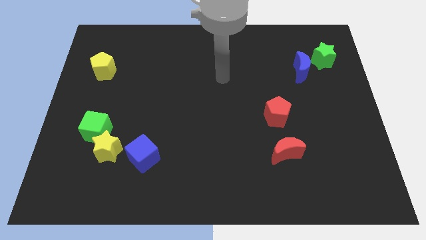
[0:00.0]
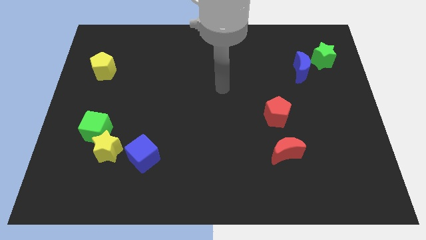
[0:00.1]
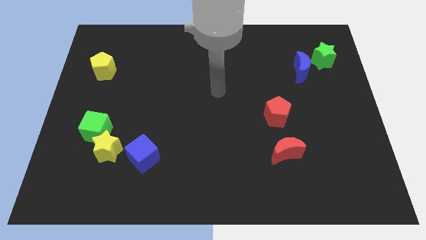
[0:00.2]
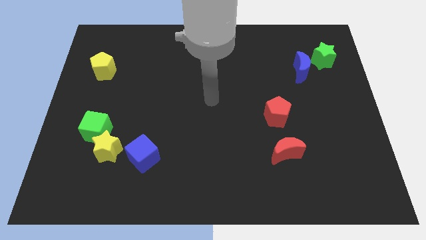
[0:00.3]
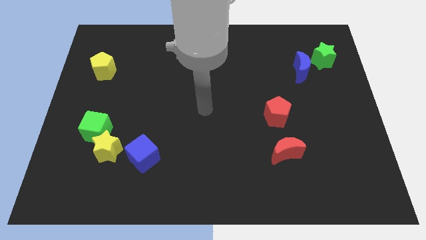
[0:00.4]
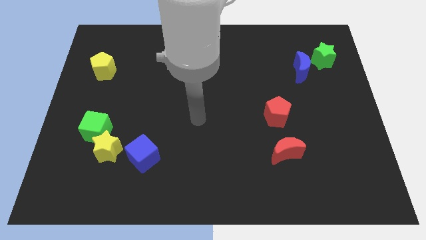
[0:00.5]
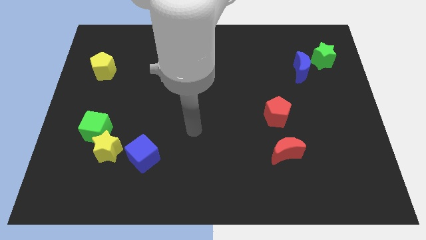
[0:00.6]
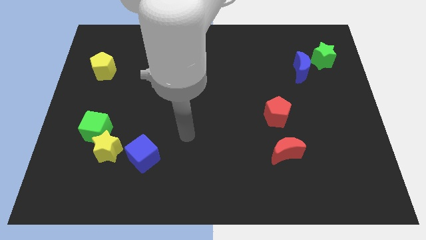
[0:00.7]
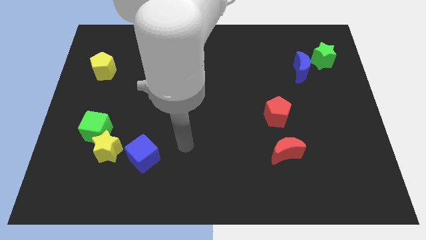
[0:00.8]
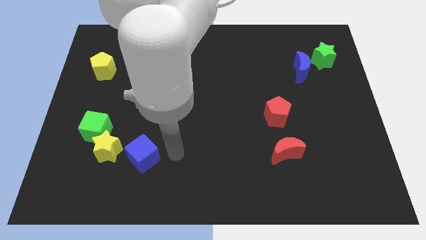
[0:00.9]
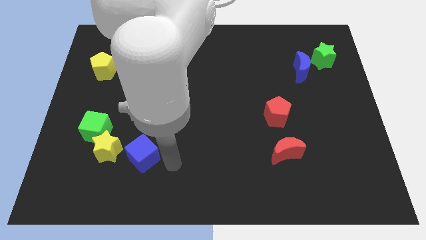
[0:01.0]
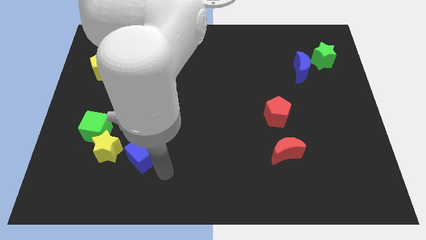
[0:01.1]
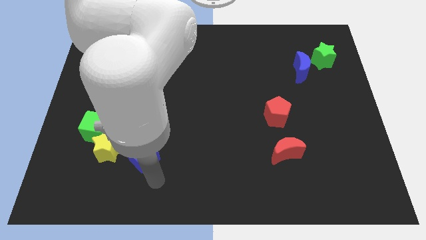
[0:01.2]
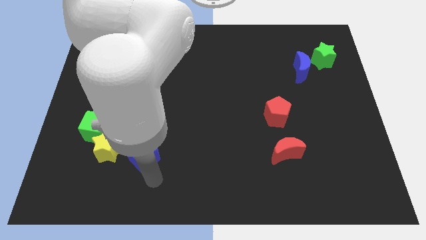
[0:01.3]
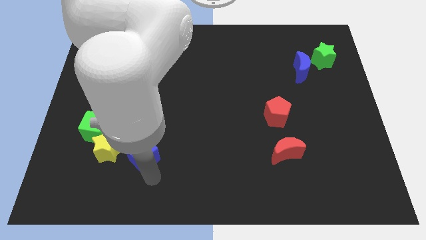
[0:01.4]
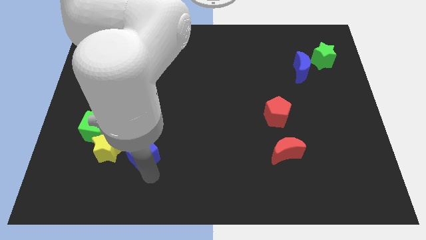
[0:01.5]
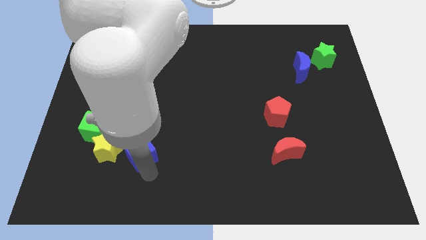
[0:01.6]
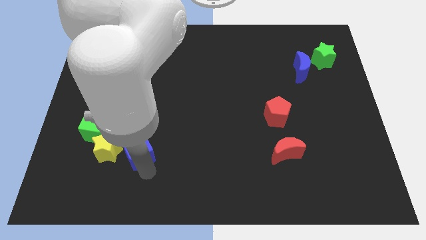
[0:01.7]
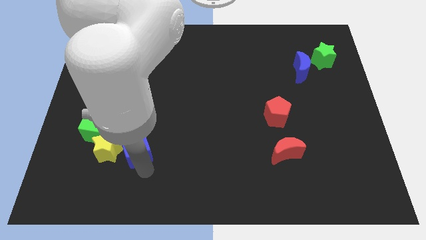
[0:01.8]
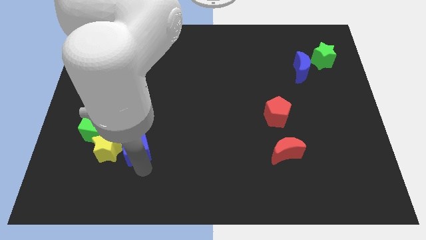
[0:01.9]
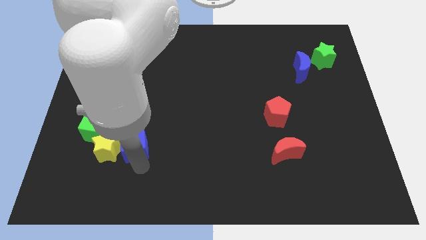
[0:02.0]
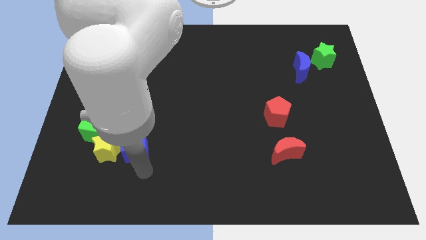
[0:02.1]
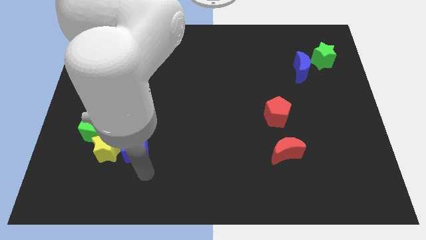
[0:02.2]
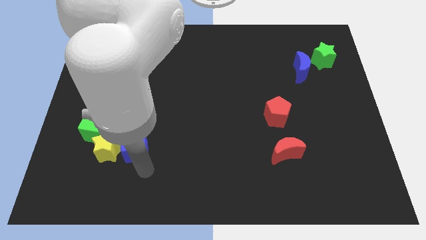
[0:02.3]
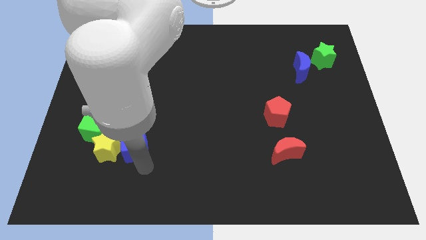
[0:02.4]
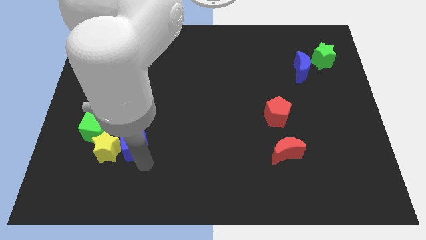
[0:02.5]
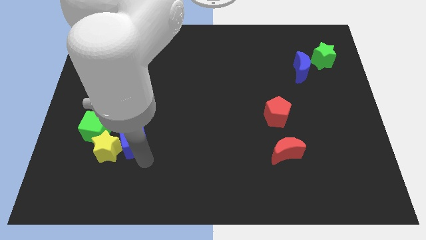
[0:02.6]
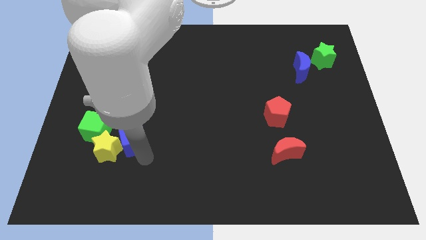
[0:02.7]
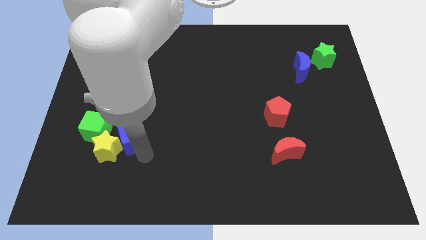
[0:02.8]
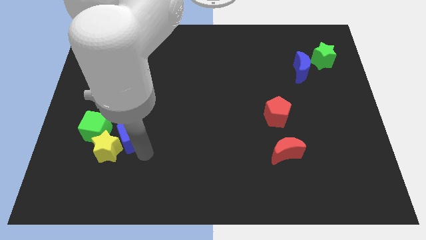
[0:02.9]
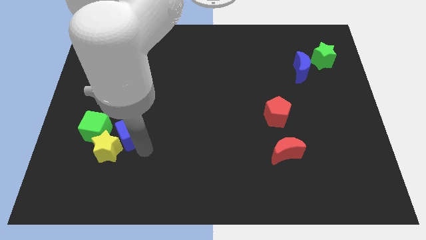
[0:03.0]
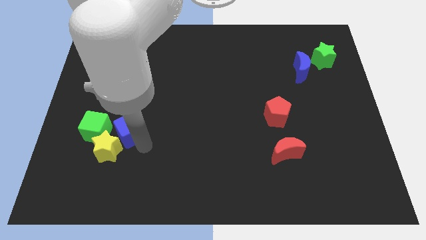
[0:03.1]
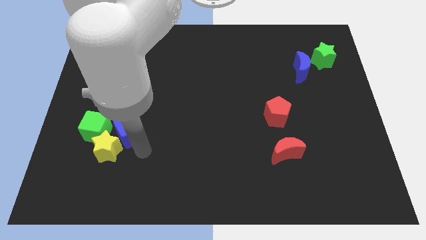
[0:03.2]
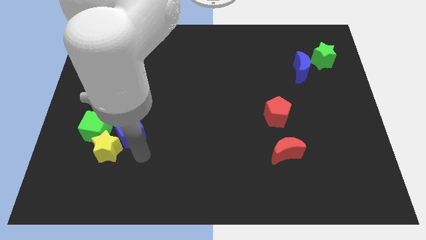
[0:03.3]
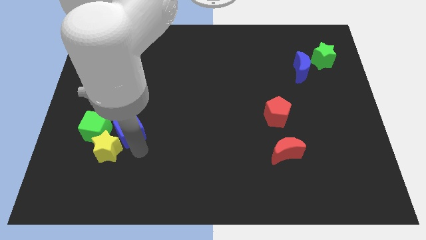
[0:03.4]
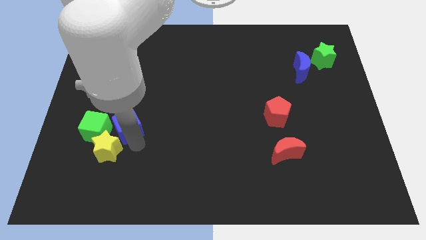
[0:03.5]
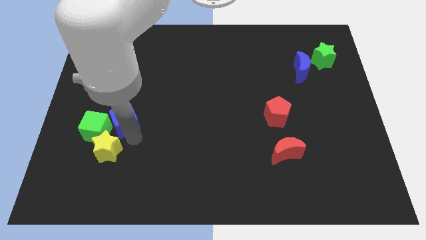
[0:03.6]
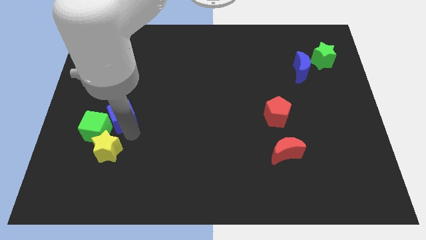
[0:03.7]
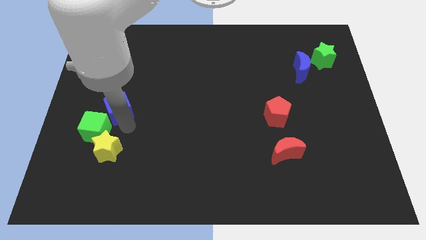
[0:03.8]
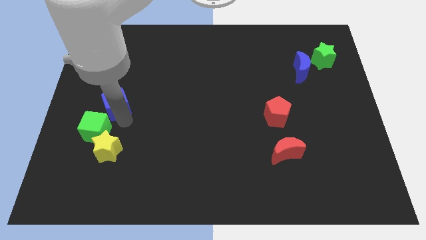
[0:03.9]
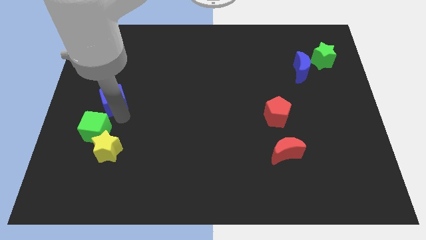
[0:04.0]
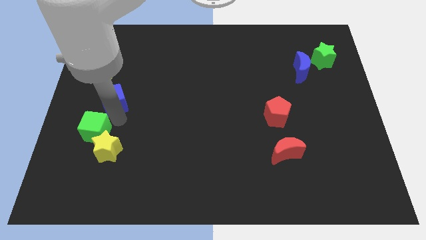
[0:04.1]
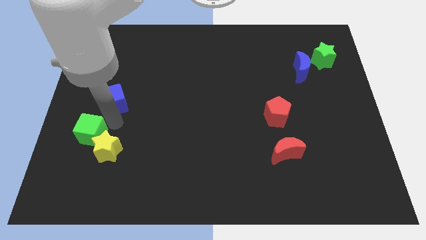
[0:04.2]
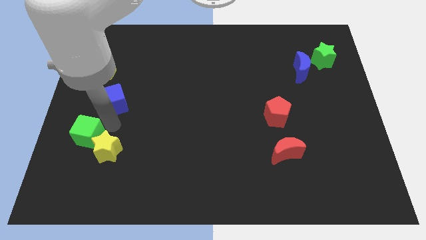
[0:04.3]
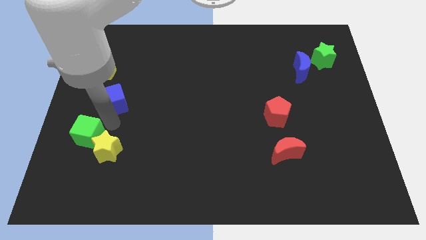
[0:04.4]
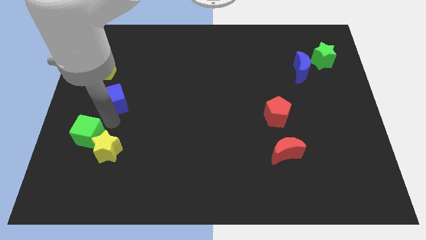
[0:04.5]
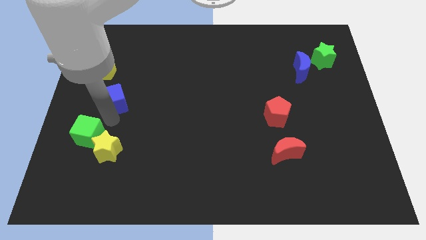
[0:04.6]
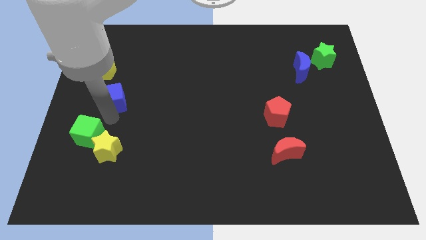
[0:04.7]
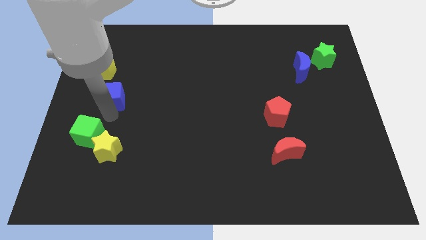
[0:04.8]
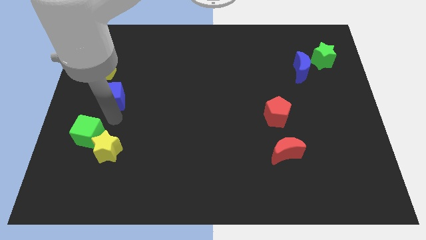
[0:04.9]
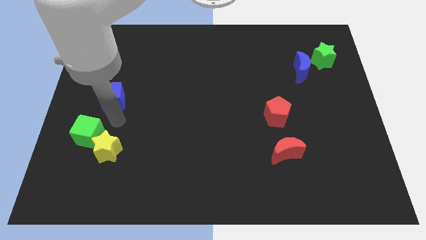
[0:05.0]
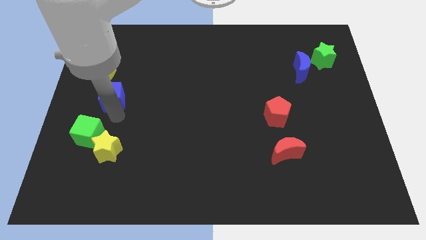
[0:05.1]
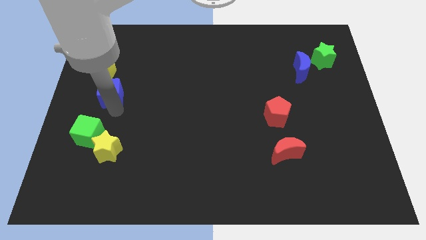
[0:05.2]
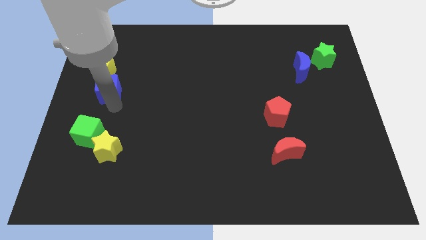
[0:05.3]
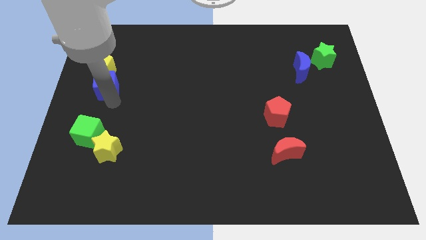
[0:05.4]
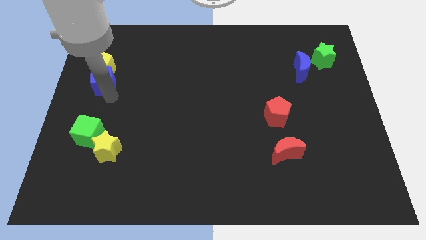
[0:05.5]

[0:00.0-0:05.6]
push the blue cube to the yellow pentagon

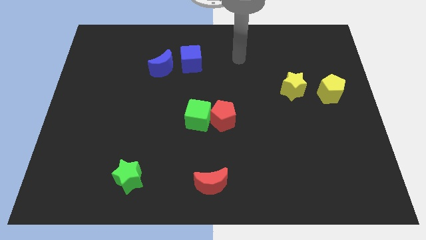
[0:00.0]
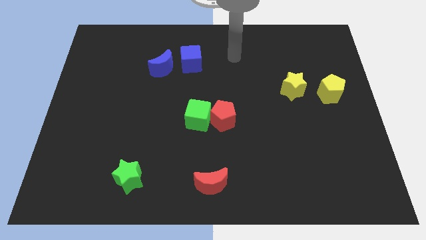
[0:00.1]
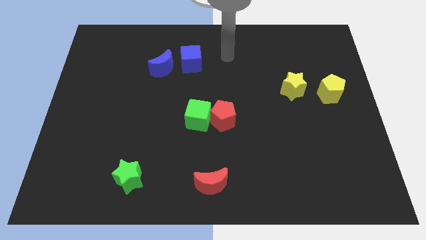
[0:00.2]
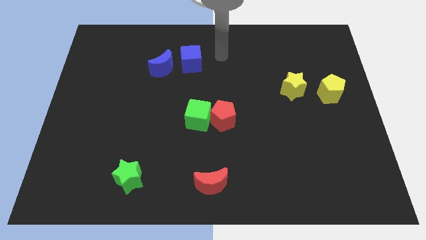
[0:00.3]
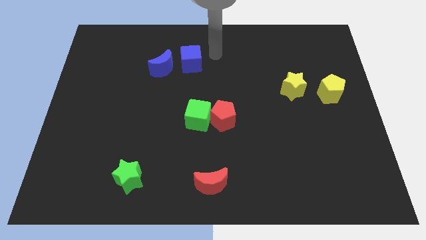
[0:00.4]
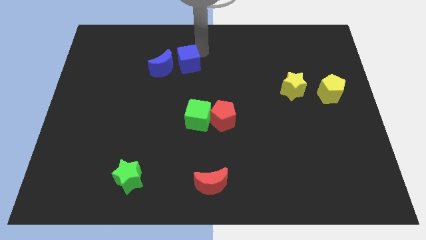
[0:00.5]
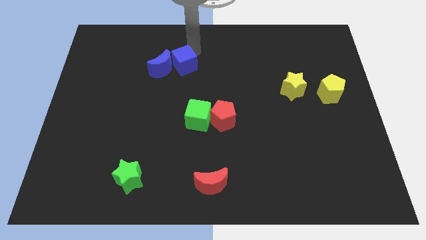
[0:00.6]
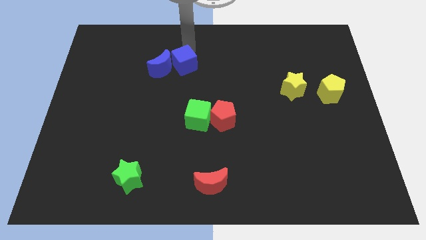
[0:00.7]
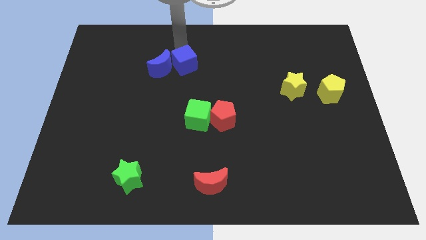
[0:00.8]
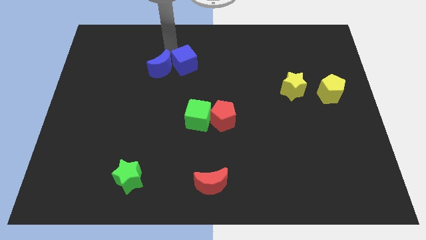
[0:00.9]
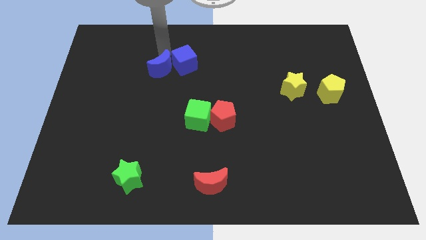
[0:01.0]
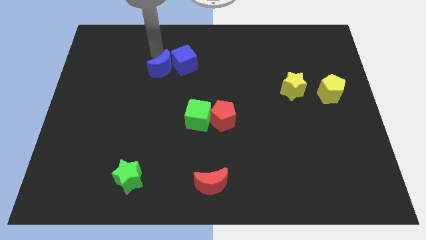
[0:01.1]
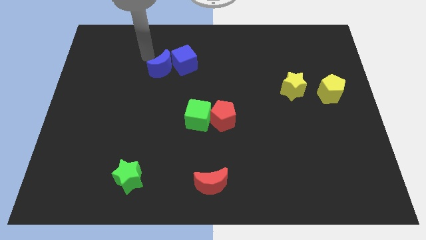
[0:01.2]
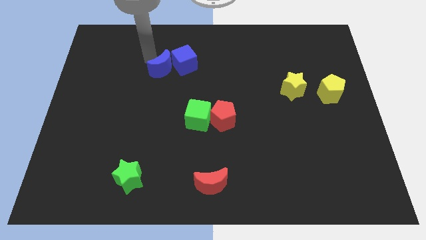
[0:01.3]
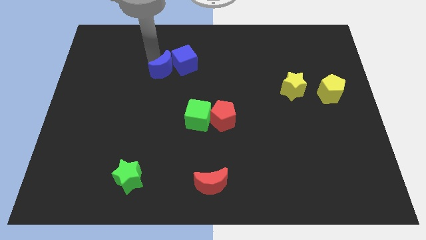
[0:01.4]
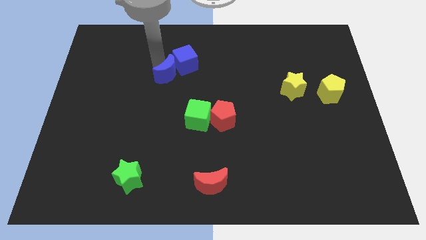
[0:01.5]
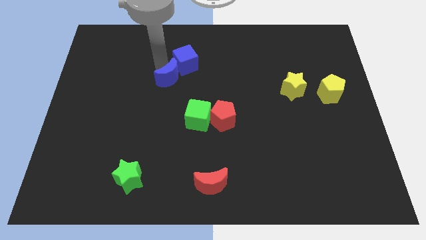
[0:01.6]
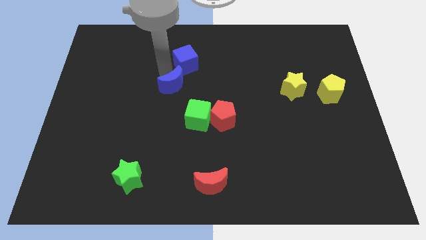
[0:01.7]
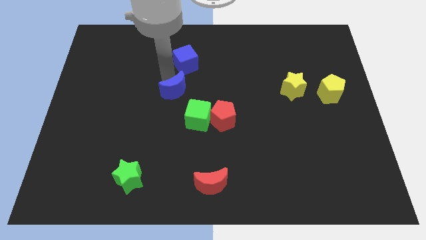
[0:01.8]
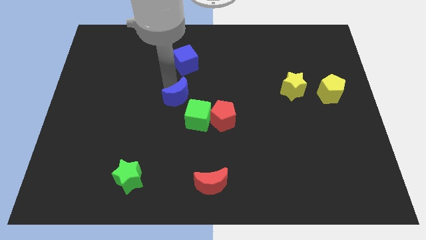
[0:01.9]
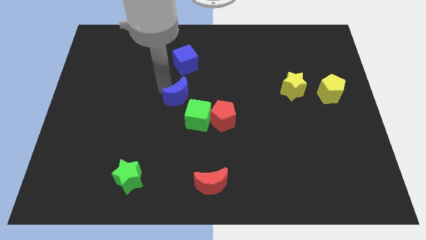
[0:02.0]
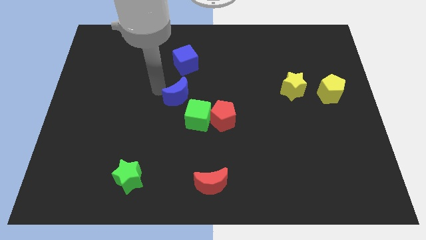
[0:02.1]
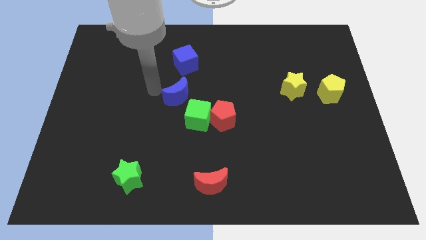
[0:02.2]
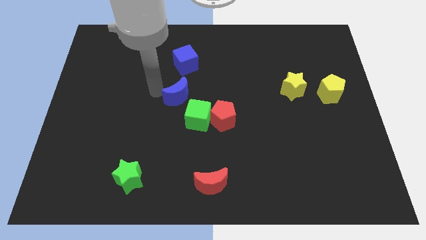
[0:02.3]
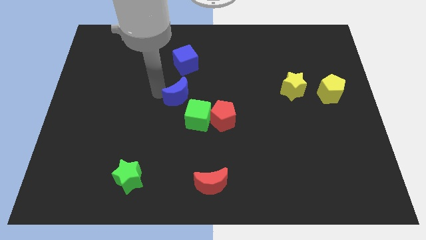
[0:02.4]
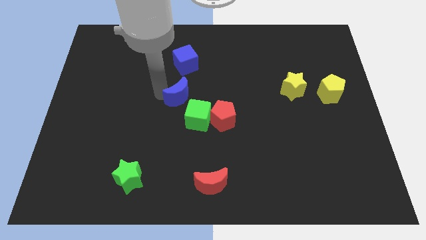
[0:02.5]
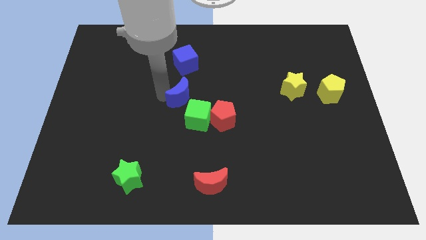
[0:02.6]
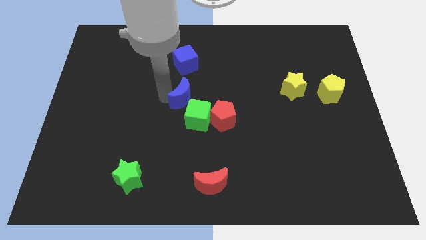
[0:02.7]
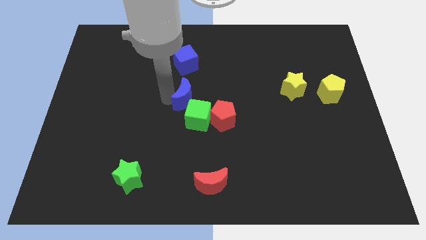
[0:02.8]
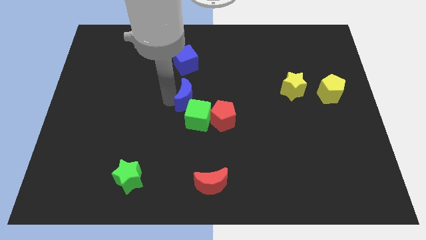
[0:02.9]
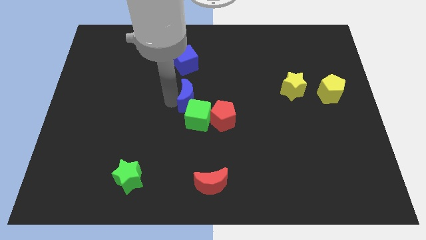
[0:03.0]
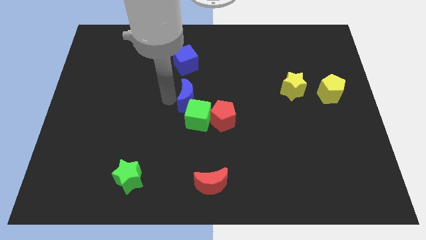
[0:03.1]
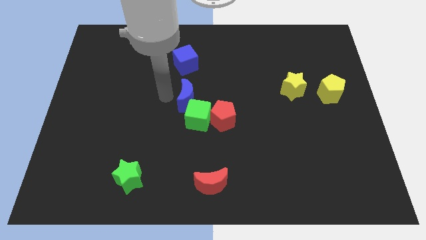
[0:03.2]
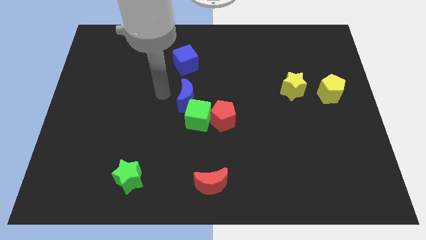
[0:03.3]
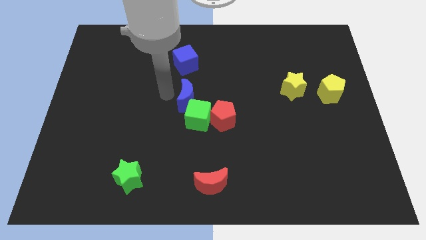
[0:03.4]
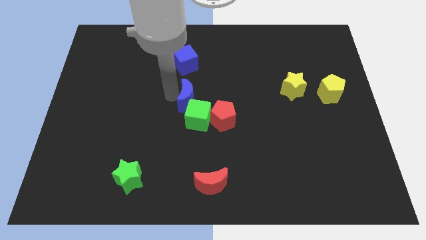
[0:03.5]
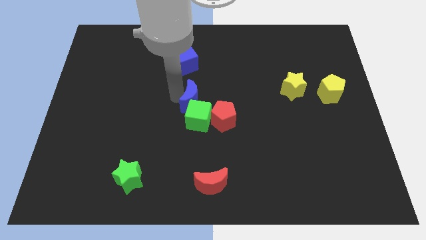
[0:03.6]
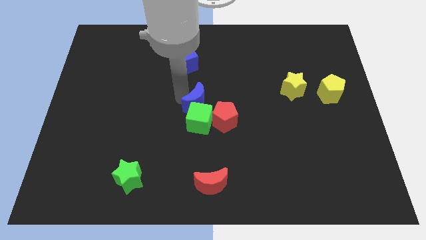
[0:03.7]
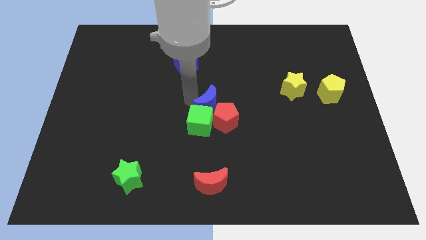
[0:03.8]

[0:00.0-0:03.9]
put the blue moon next to the red pentagon
